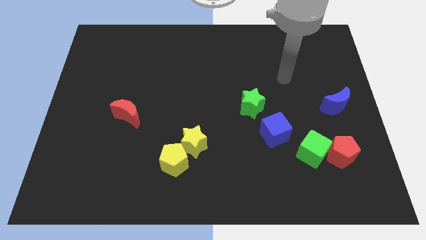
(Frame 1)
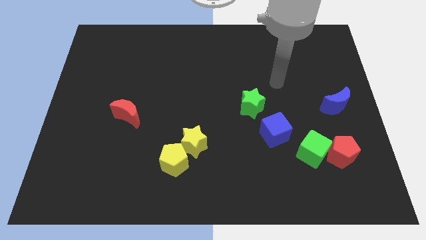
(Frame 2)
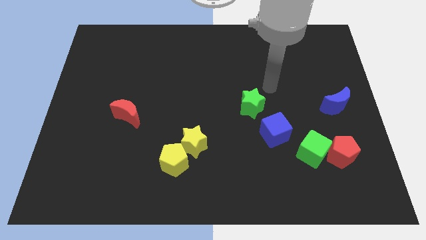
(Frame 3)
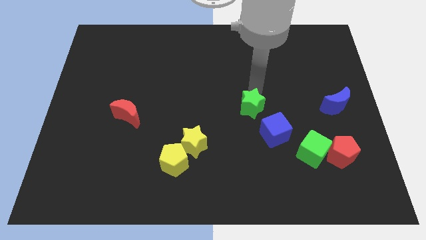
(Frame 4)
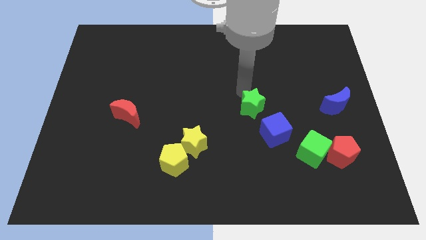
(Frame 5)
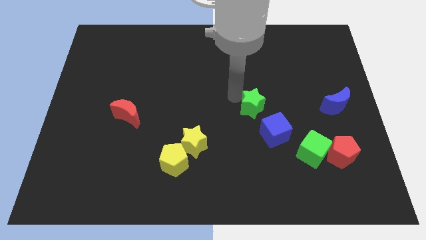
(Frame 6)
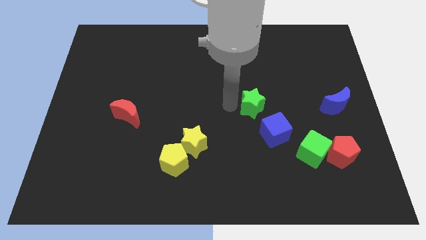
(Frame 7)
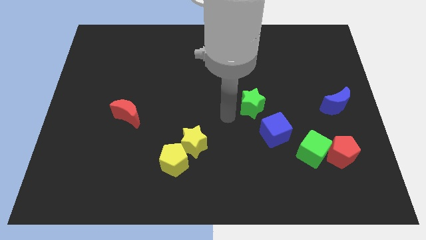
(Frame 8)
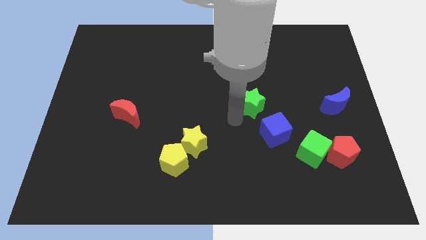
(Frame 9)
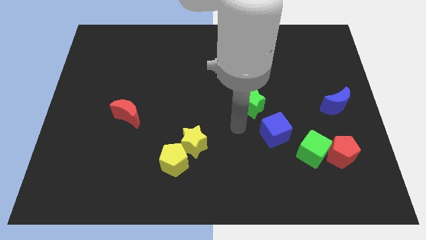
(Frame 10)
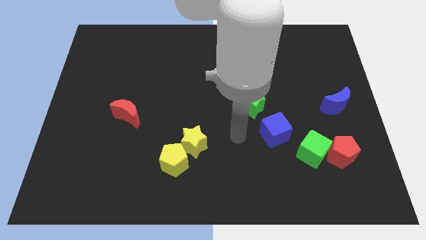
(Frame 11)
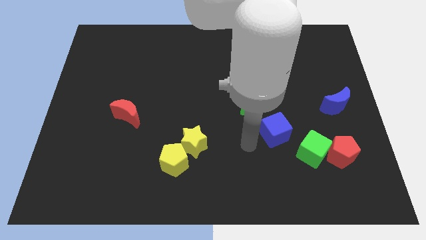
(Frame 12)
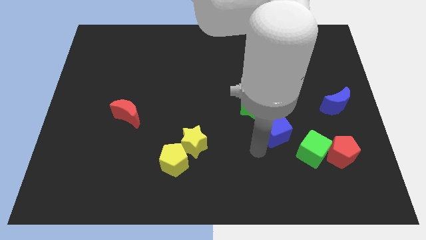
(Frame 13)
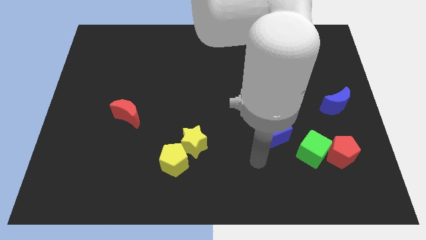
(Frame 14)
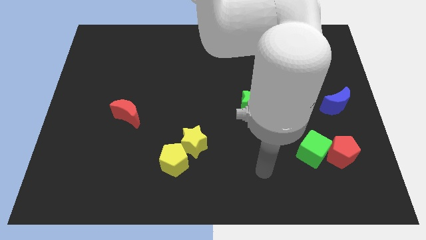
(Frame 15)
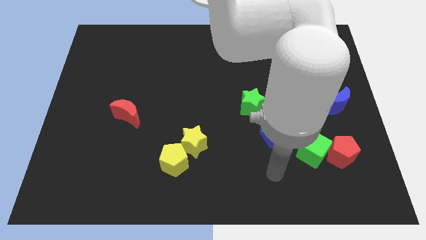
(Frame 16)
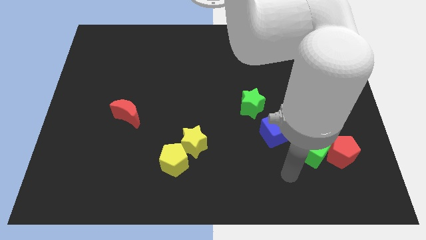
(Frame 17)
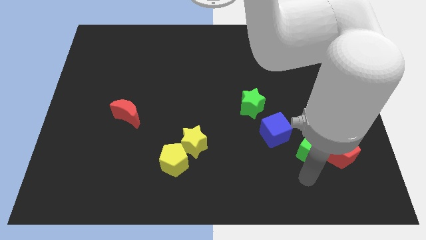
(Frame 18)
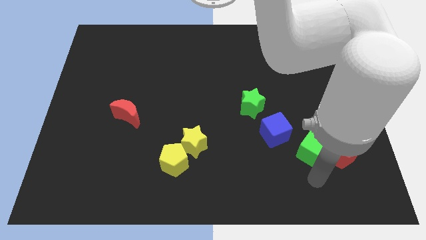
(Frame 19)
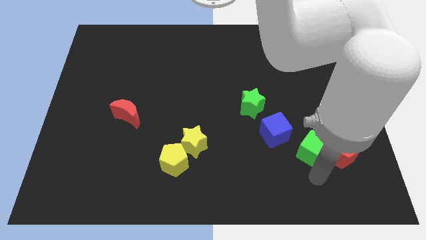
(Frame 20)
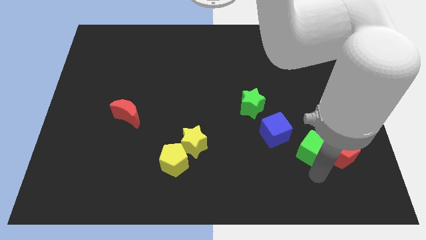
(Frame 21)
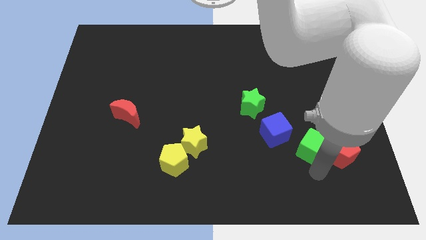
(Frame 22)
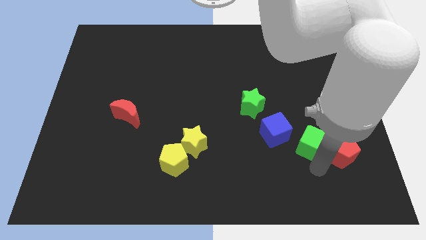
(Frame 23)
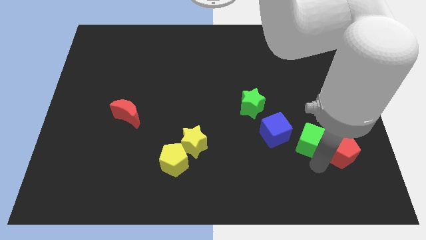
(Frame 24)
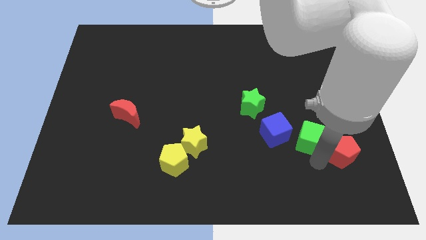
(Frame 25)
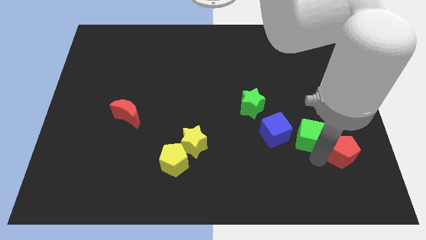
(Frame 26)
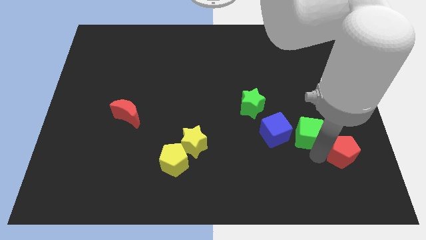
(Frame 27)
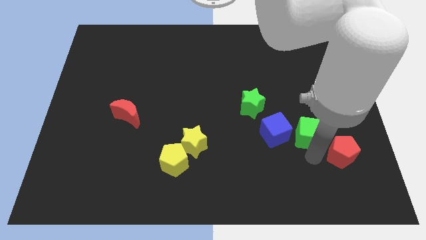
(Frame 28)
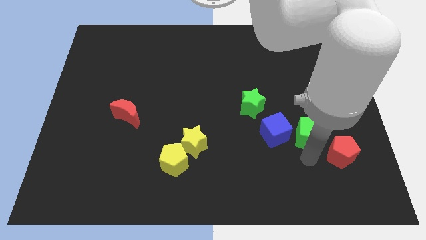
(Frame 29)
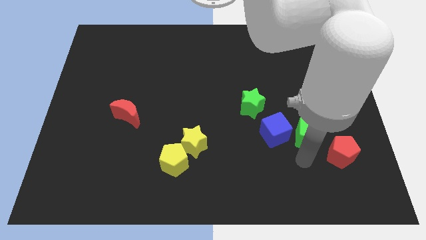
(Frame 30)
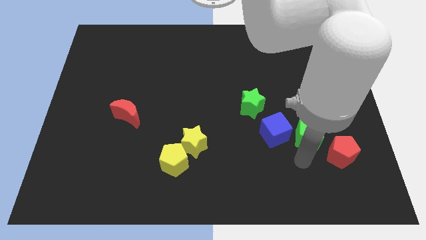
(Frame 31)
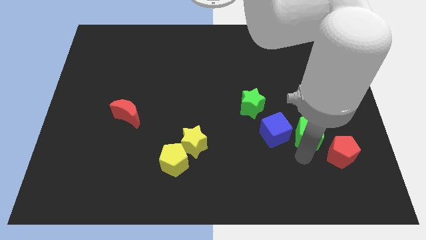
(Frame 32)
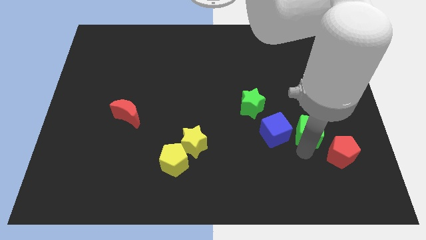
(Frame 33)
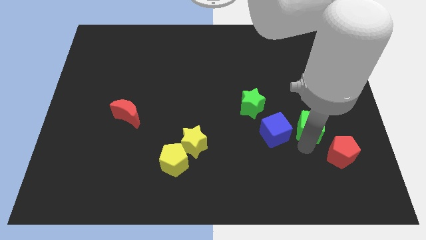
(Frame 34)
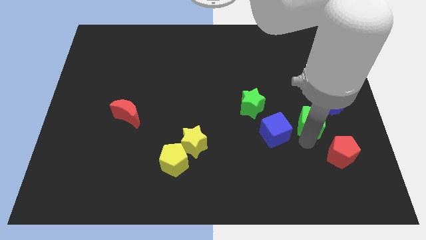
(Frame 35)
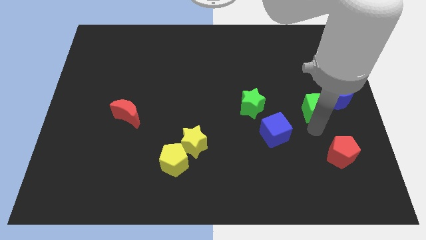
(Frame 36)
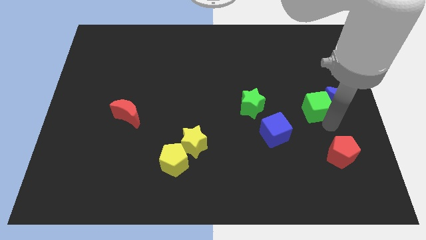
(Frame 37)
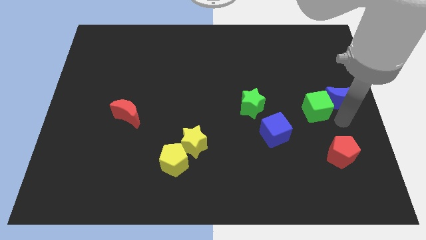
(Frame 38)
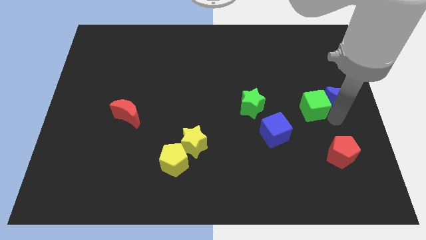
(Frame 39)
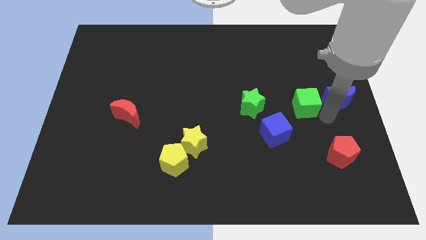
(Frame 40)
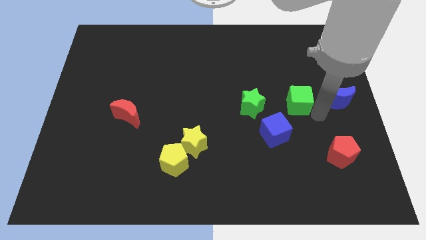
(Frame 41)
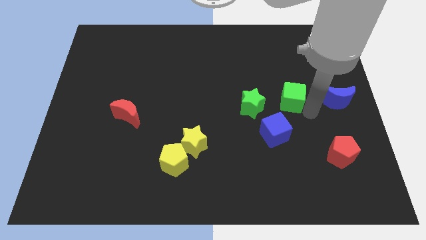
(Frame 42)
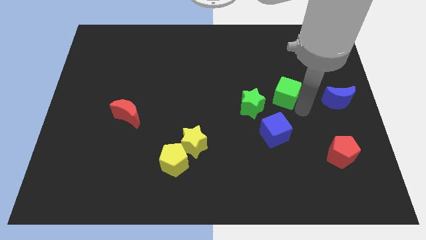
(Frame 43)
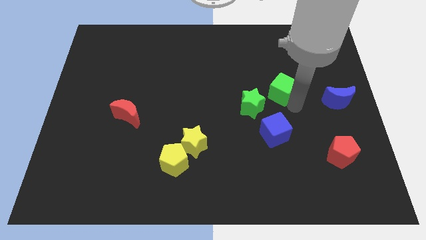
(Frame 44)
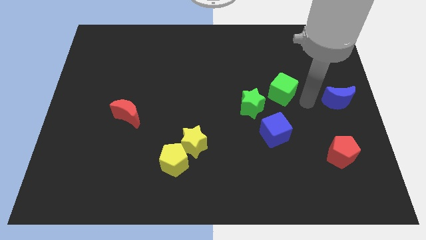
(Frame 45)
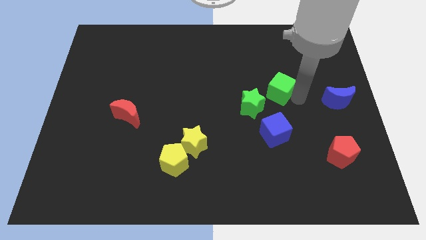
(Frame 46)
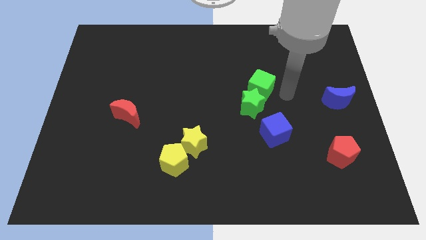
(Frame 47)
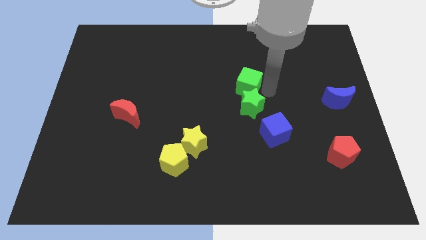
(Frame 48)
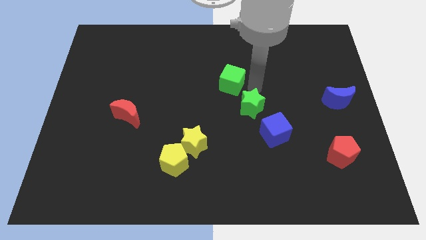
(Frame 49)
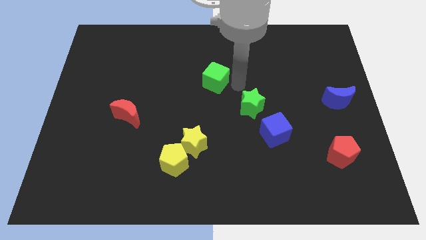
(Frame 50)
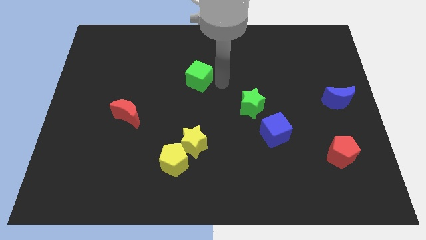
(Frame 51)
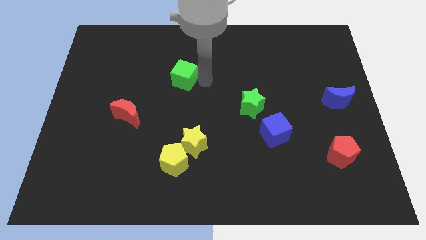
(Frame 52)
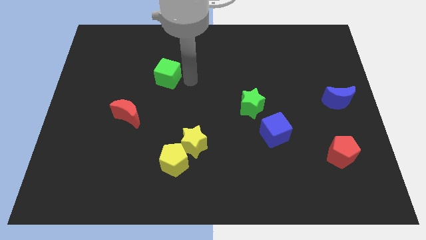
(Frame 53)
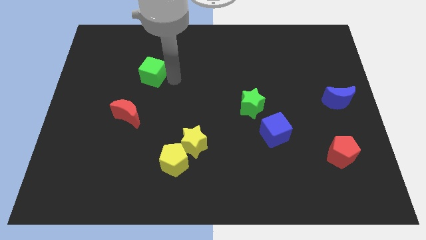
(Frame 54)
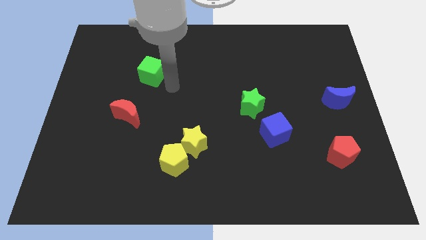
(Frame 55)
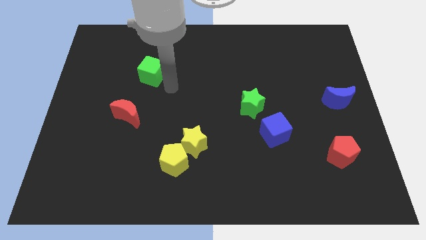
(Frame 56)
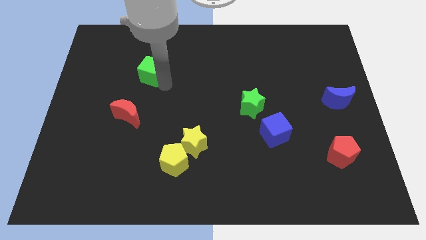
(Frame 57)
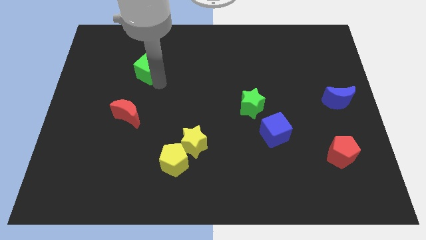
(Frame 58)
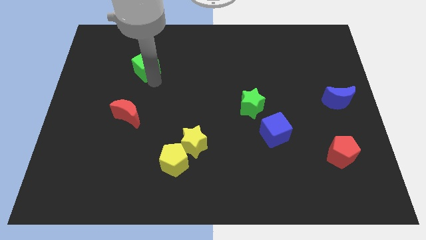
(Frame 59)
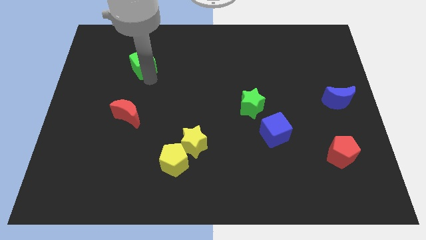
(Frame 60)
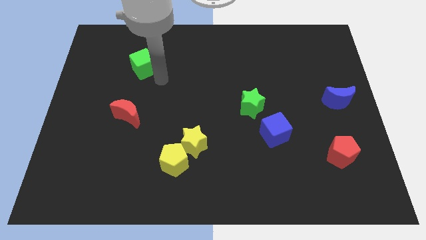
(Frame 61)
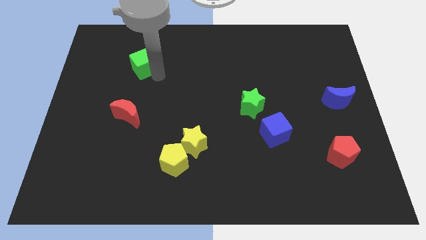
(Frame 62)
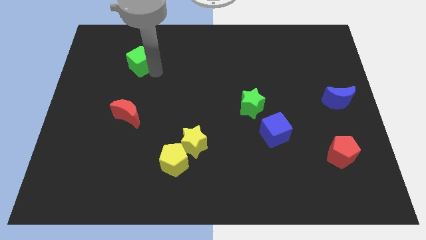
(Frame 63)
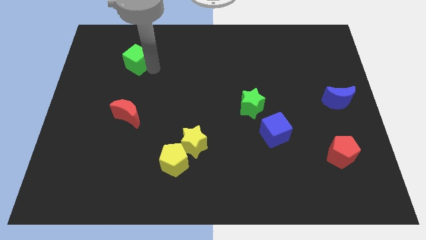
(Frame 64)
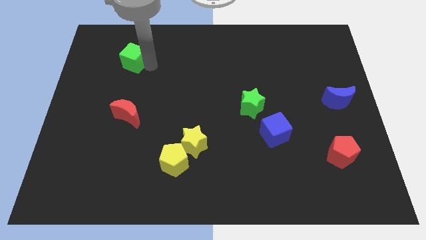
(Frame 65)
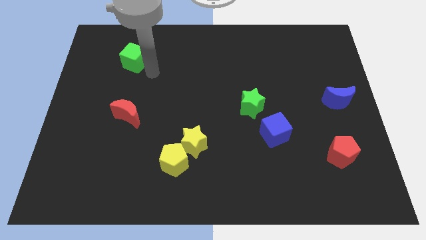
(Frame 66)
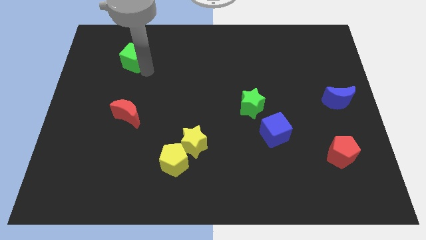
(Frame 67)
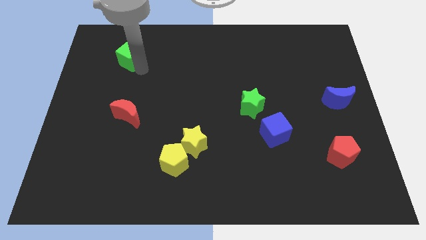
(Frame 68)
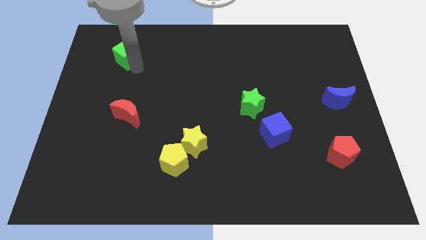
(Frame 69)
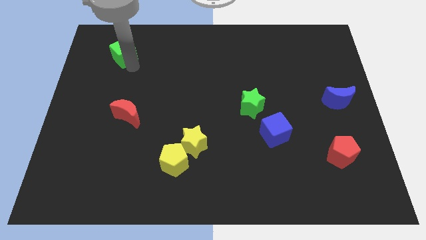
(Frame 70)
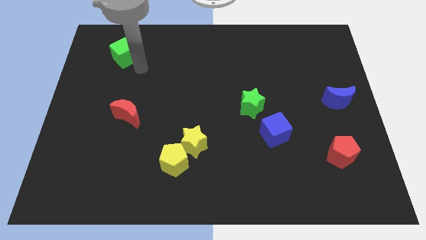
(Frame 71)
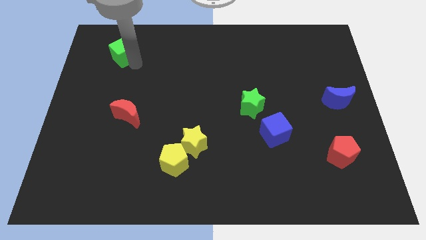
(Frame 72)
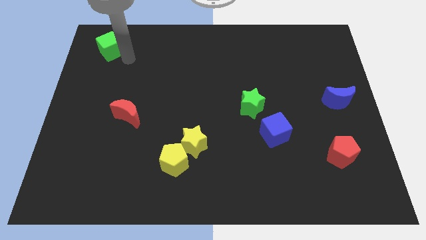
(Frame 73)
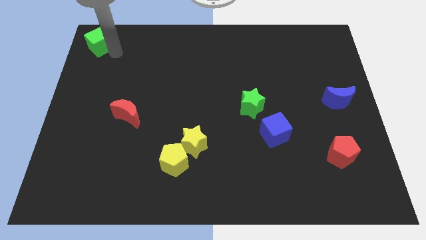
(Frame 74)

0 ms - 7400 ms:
slide the green cube to the top left corner
